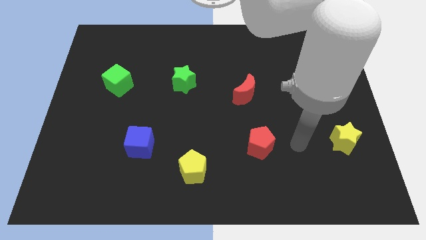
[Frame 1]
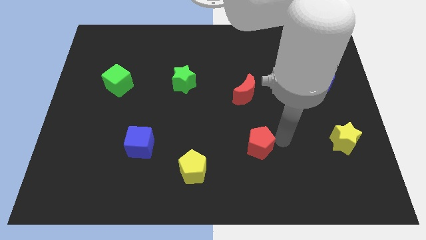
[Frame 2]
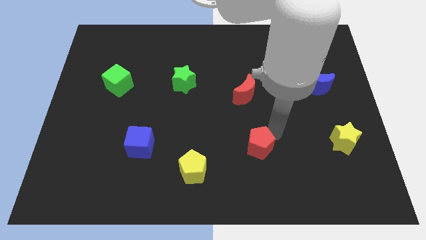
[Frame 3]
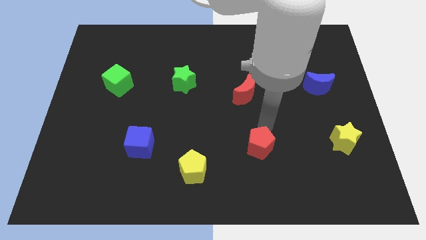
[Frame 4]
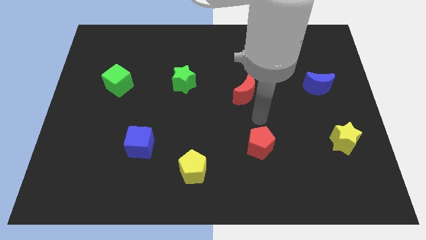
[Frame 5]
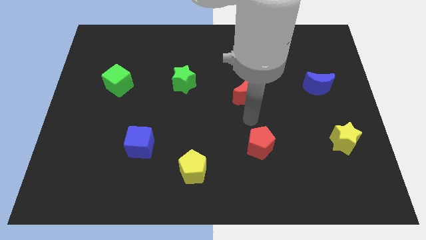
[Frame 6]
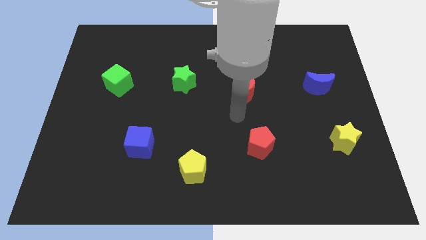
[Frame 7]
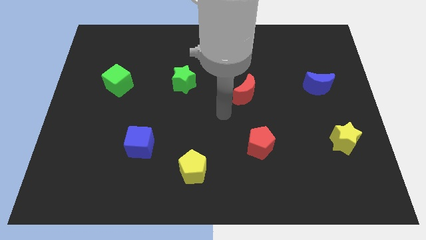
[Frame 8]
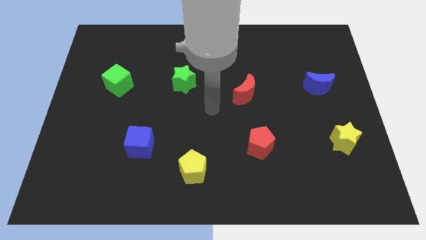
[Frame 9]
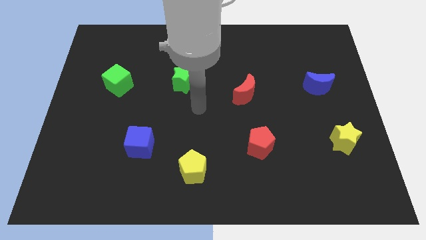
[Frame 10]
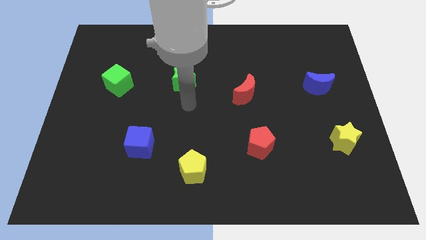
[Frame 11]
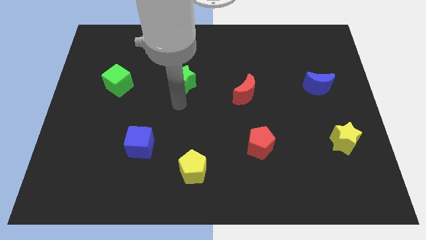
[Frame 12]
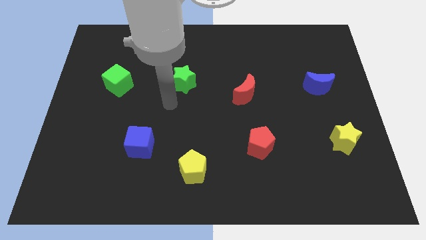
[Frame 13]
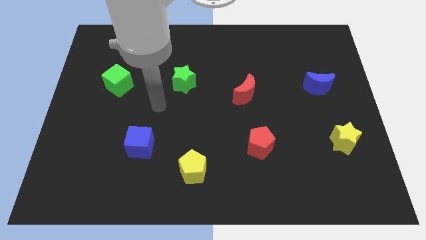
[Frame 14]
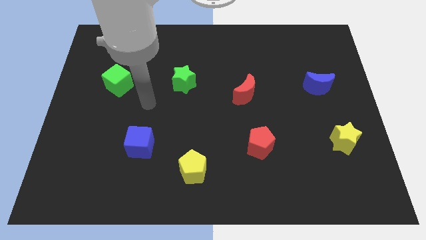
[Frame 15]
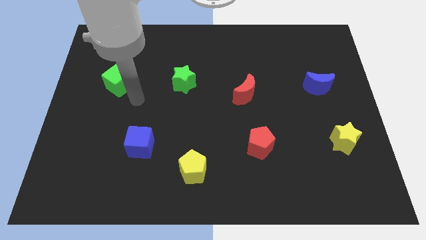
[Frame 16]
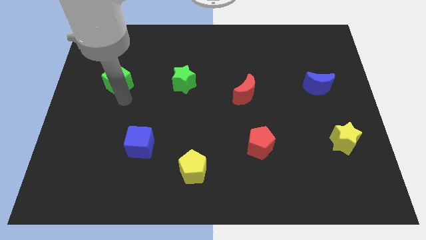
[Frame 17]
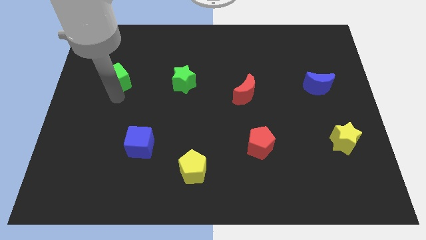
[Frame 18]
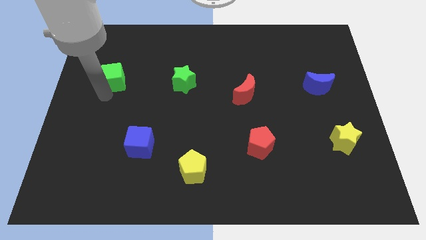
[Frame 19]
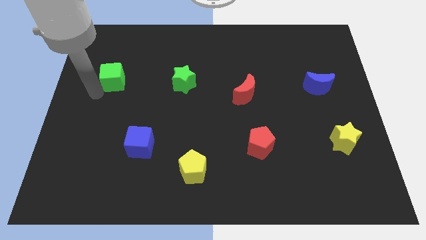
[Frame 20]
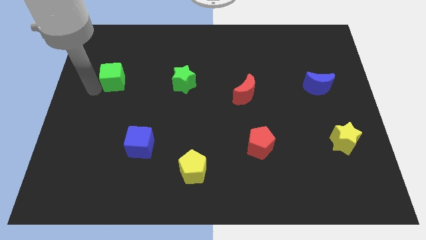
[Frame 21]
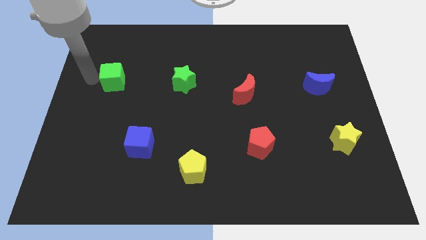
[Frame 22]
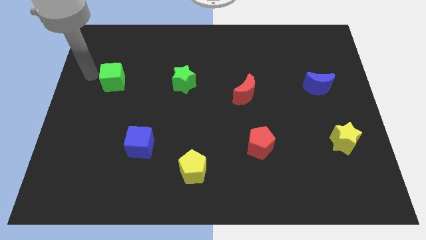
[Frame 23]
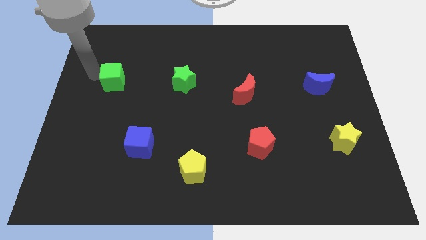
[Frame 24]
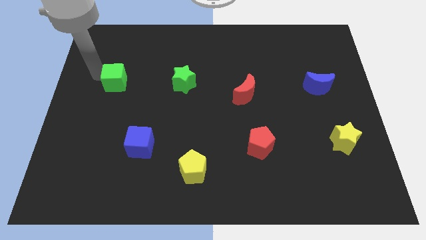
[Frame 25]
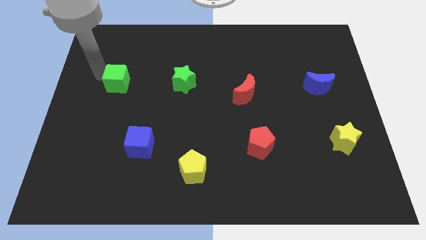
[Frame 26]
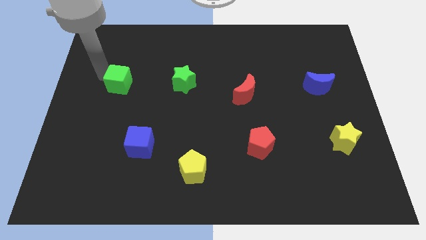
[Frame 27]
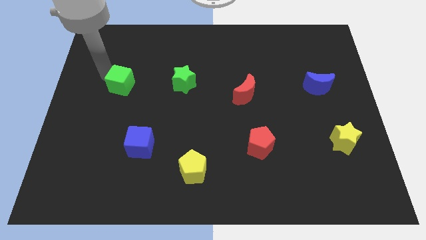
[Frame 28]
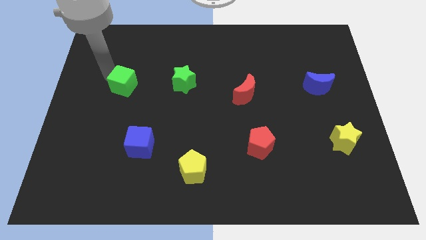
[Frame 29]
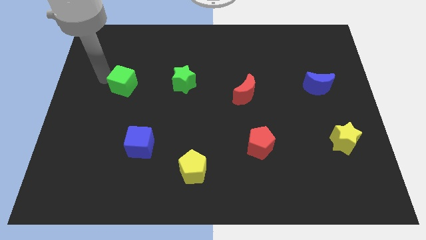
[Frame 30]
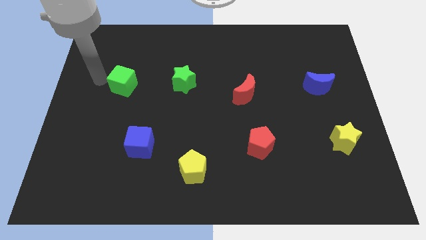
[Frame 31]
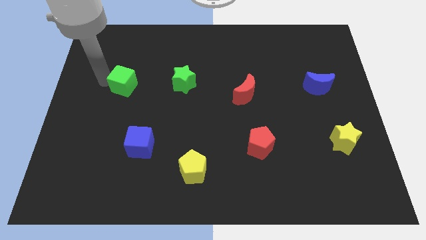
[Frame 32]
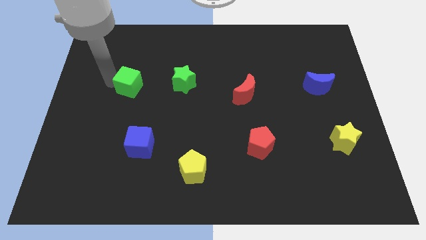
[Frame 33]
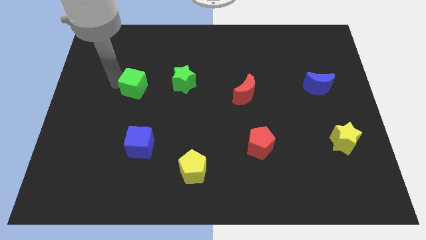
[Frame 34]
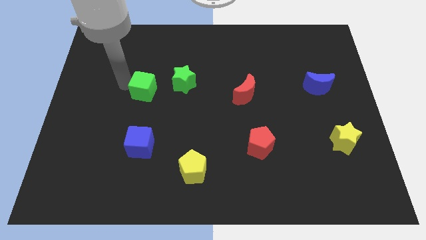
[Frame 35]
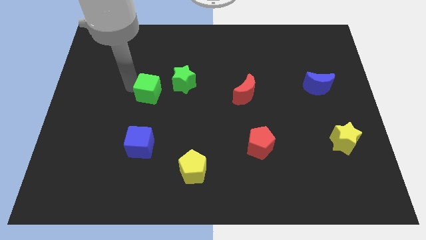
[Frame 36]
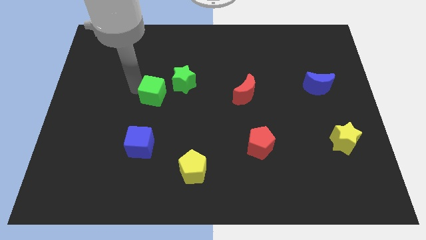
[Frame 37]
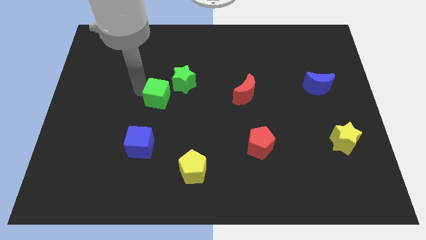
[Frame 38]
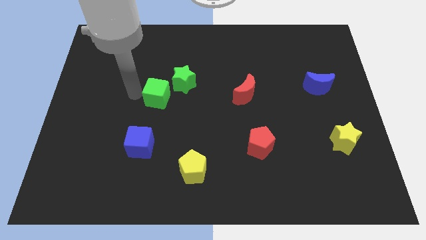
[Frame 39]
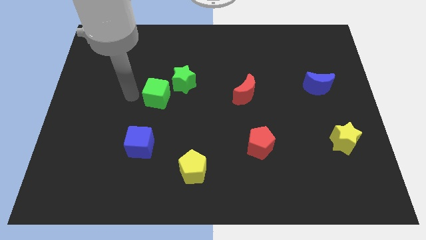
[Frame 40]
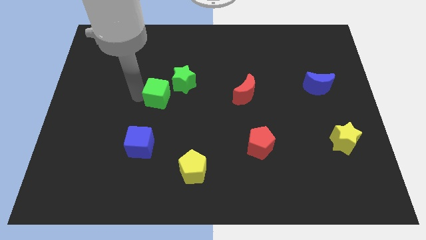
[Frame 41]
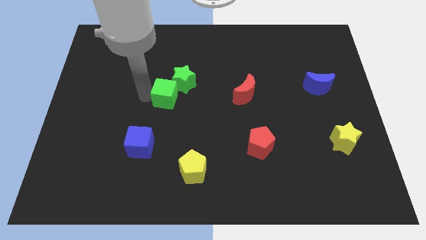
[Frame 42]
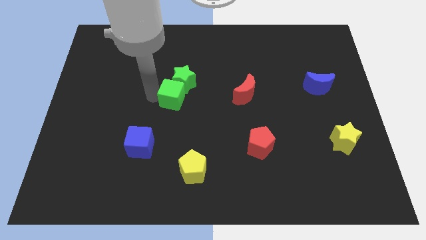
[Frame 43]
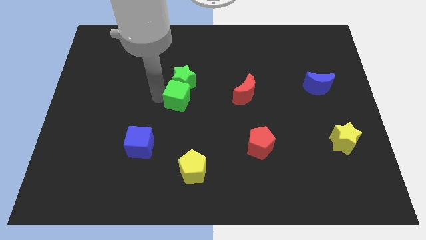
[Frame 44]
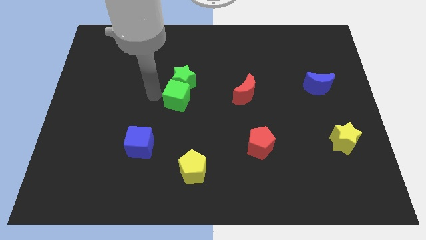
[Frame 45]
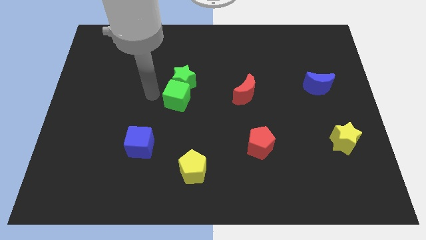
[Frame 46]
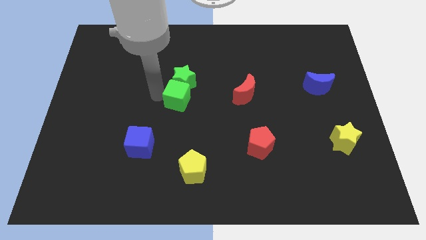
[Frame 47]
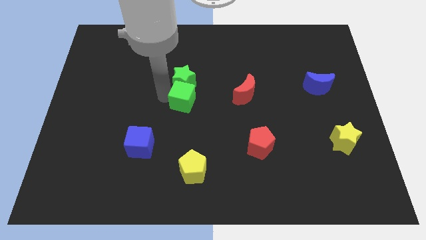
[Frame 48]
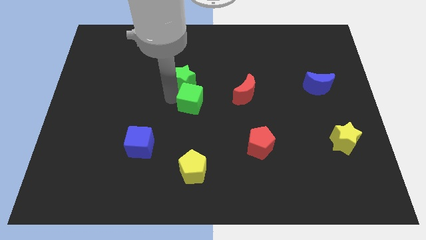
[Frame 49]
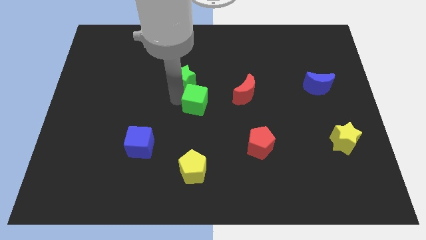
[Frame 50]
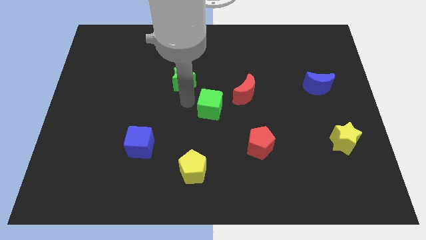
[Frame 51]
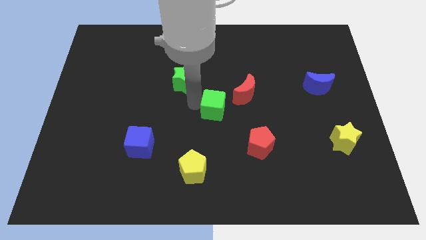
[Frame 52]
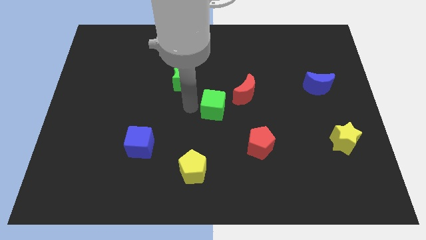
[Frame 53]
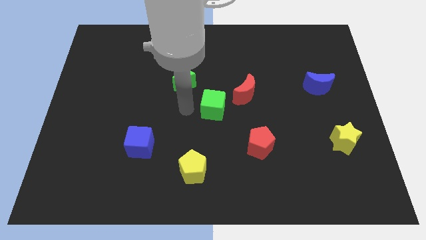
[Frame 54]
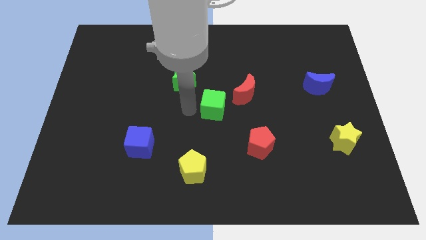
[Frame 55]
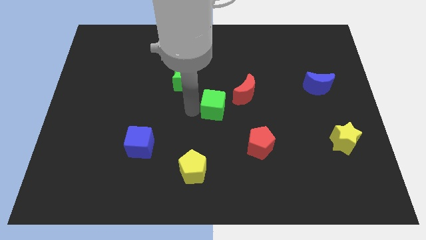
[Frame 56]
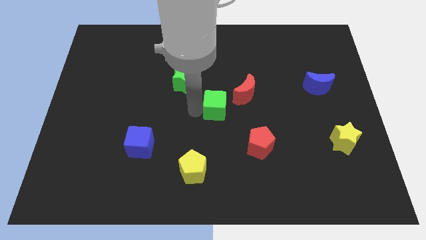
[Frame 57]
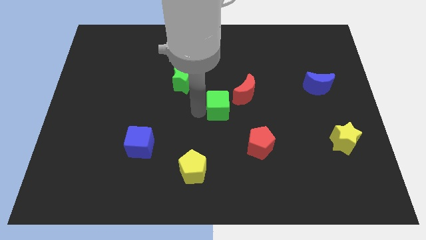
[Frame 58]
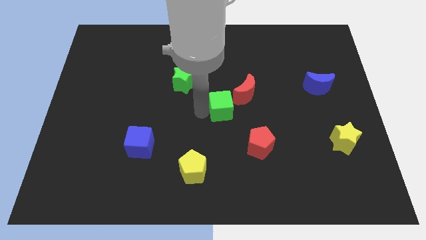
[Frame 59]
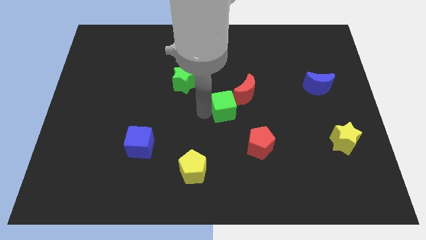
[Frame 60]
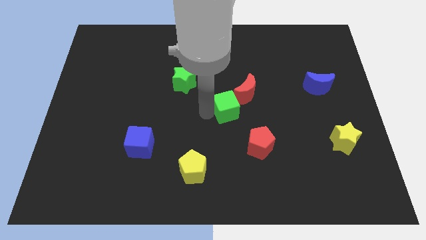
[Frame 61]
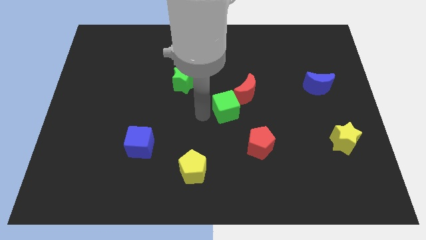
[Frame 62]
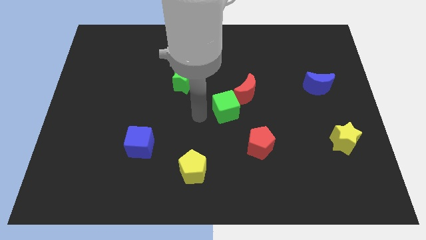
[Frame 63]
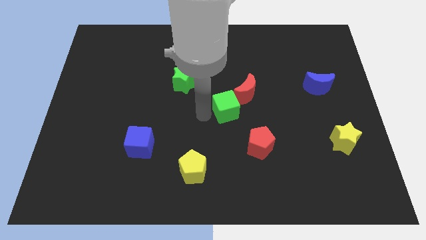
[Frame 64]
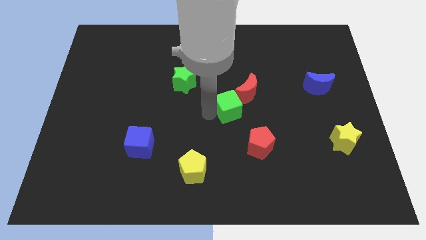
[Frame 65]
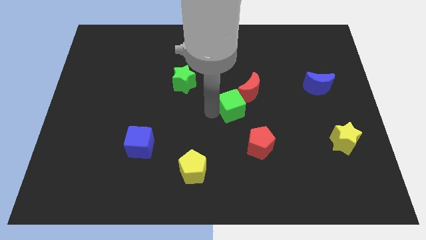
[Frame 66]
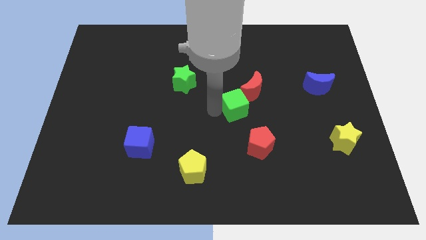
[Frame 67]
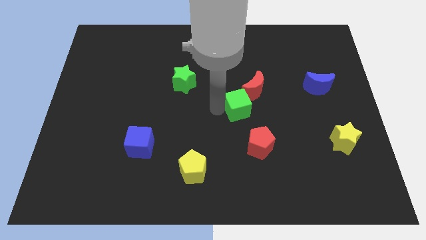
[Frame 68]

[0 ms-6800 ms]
move the green cube to the top of the red pentagon
